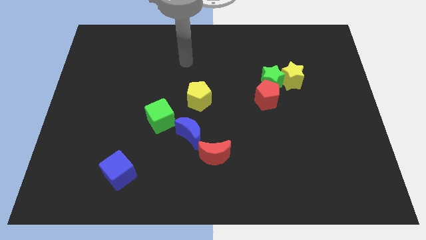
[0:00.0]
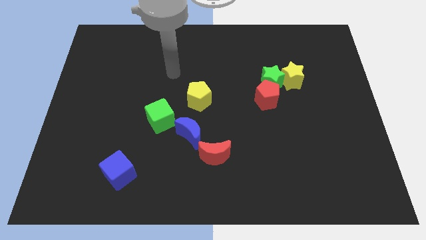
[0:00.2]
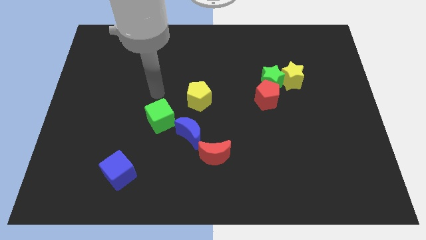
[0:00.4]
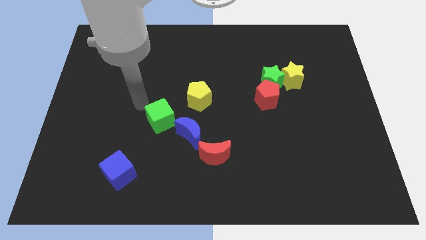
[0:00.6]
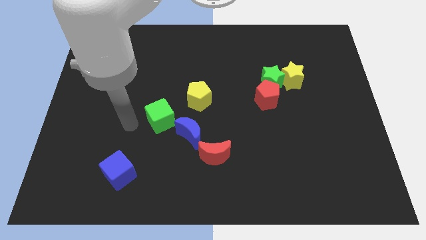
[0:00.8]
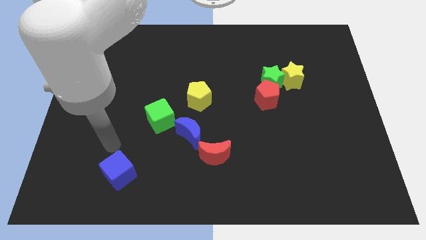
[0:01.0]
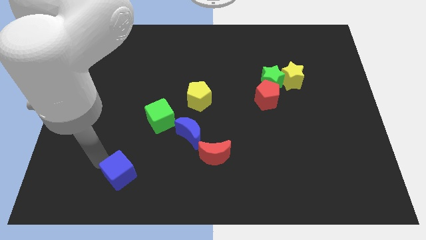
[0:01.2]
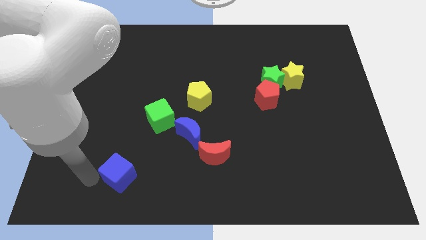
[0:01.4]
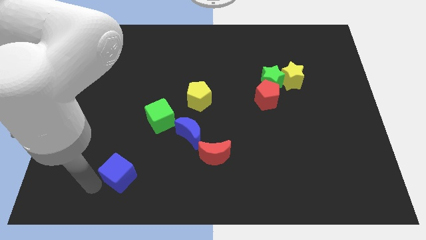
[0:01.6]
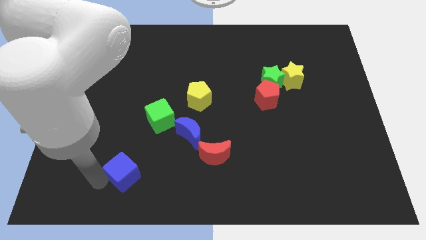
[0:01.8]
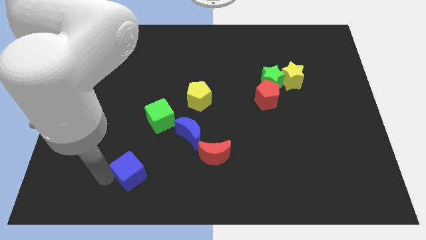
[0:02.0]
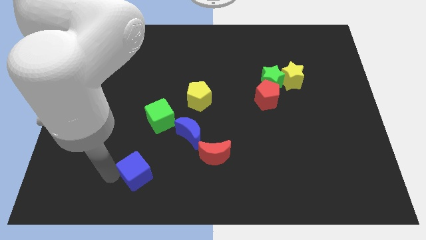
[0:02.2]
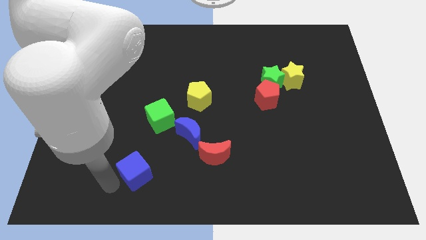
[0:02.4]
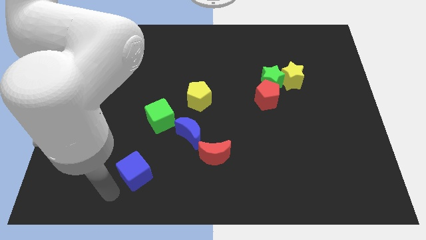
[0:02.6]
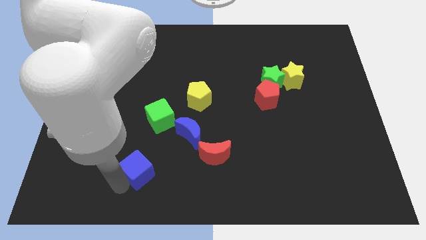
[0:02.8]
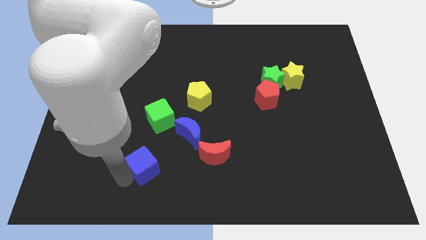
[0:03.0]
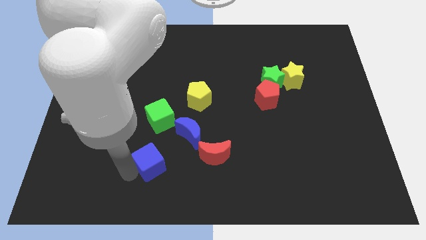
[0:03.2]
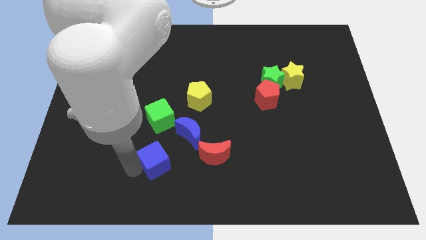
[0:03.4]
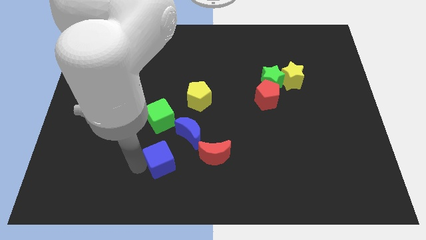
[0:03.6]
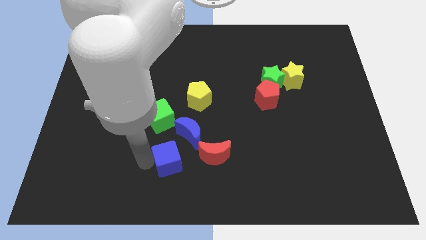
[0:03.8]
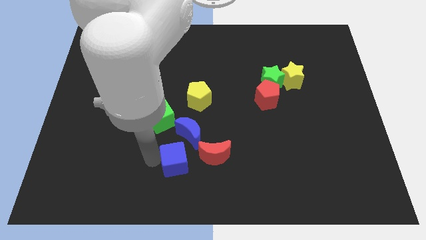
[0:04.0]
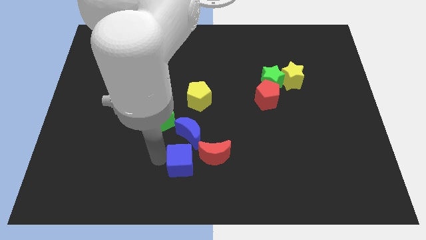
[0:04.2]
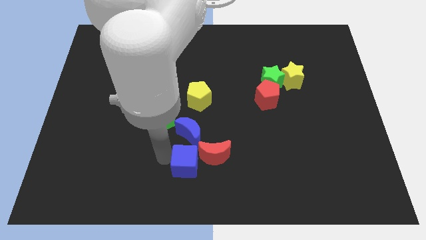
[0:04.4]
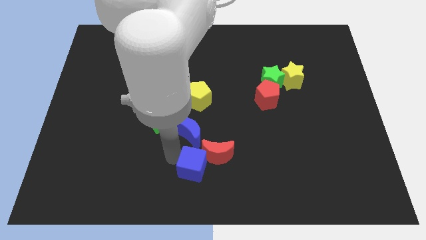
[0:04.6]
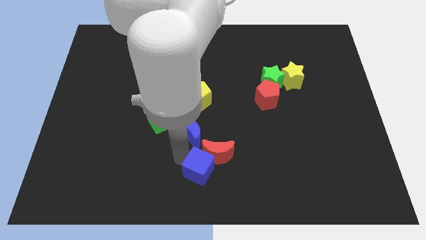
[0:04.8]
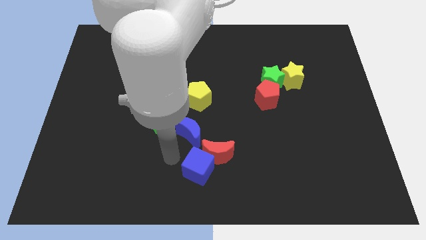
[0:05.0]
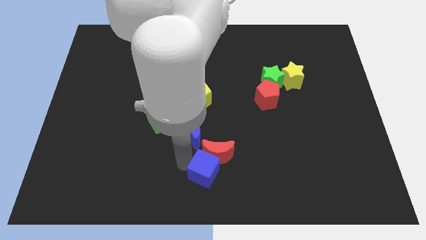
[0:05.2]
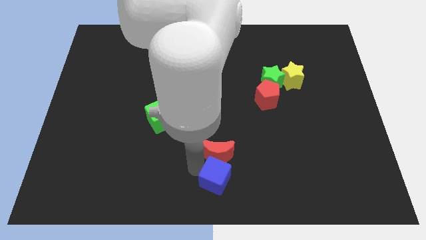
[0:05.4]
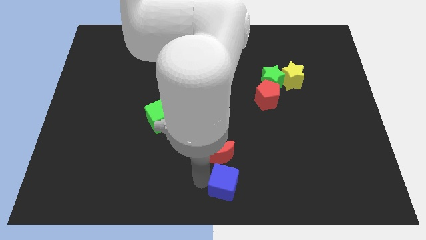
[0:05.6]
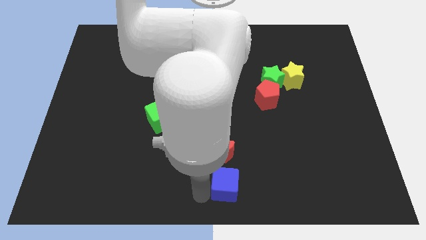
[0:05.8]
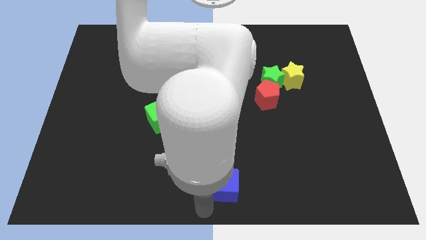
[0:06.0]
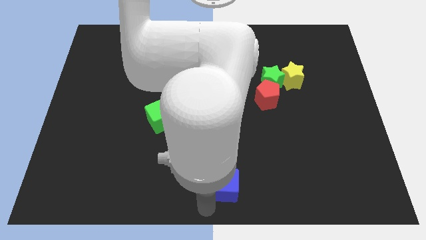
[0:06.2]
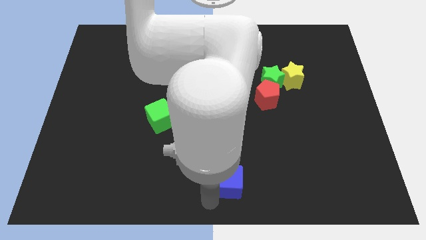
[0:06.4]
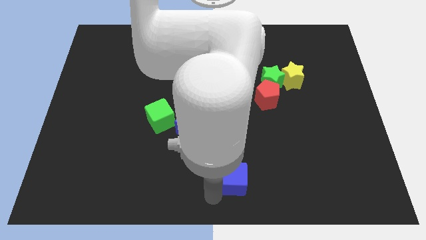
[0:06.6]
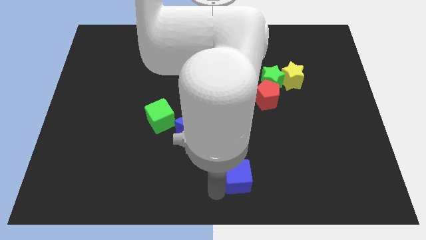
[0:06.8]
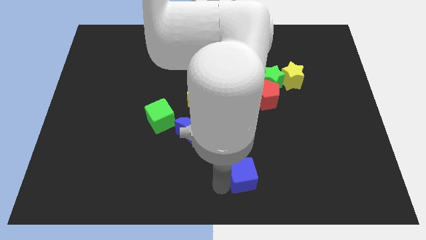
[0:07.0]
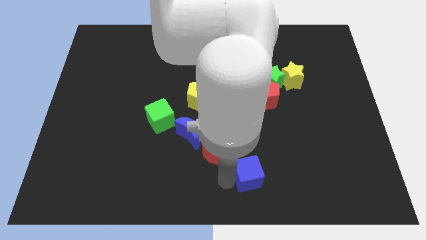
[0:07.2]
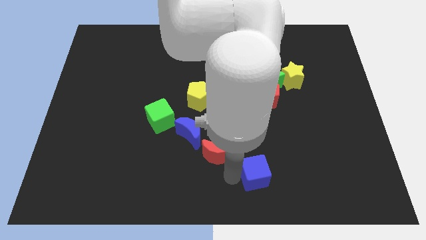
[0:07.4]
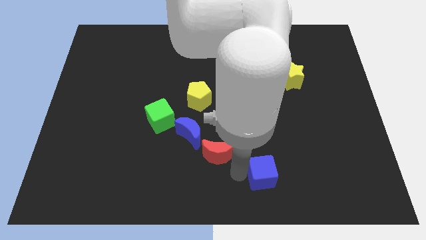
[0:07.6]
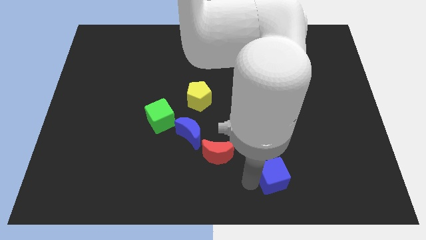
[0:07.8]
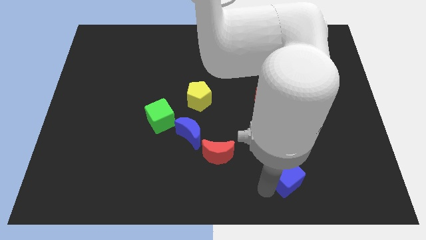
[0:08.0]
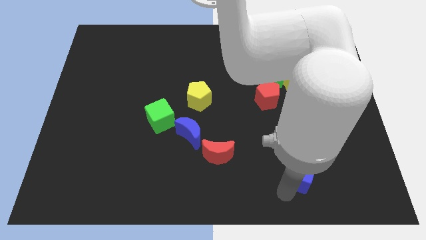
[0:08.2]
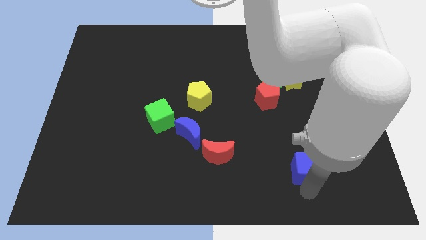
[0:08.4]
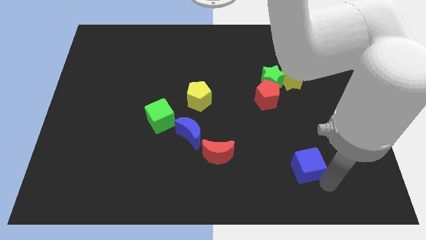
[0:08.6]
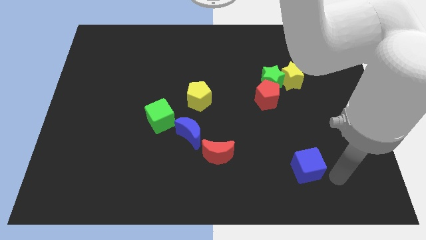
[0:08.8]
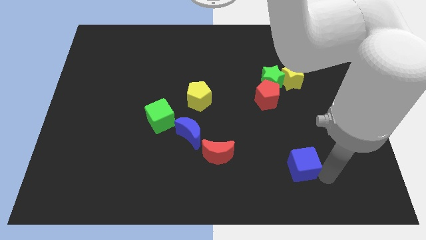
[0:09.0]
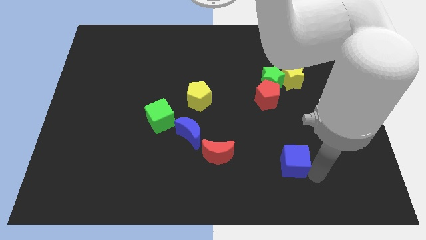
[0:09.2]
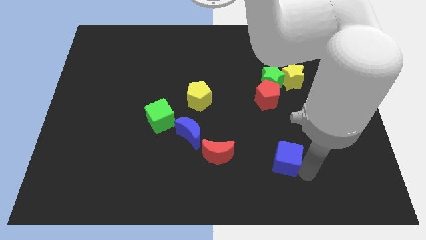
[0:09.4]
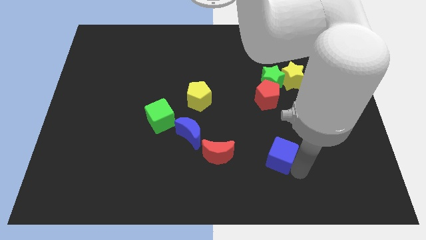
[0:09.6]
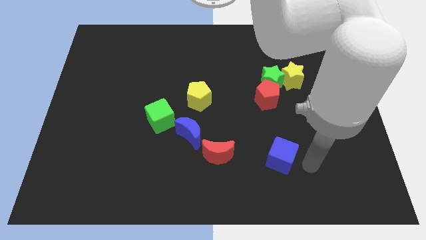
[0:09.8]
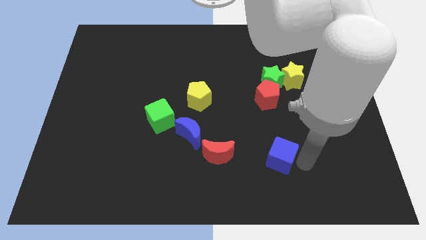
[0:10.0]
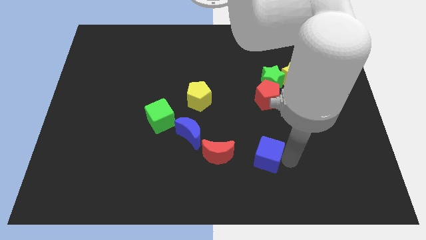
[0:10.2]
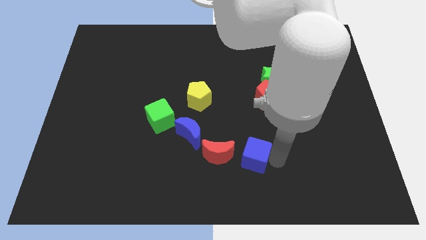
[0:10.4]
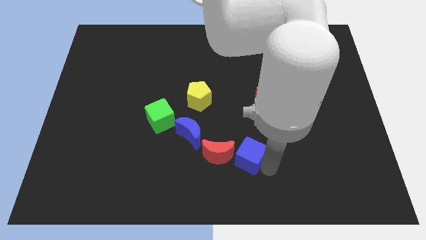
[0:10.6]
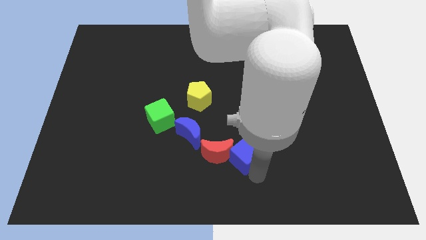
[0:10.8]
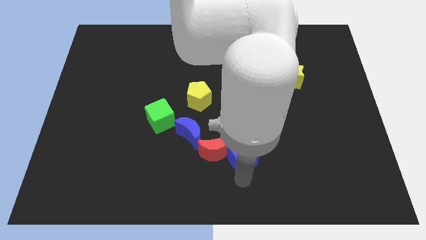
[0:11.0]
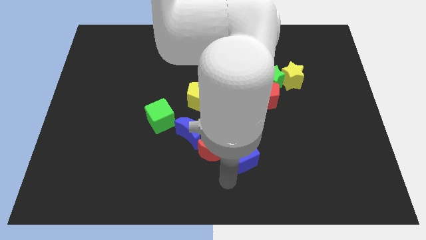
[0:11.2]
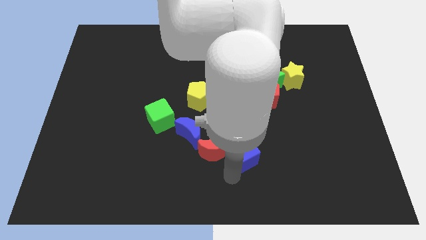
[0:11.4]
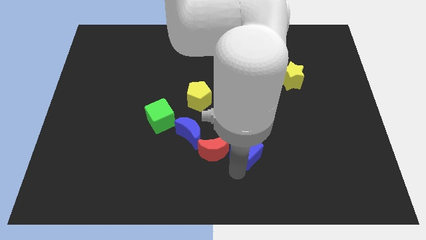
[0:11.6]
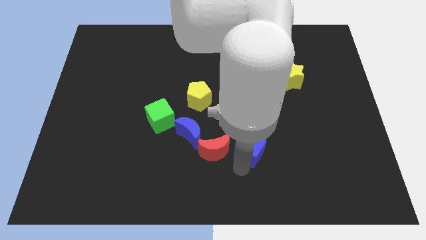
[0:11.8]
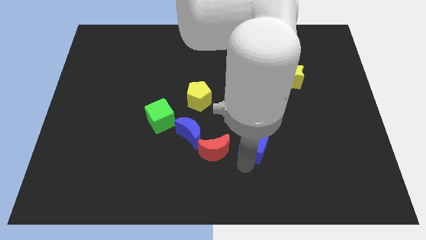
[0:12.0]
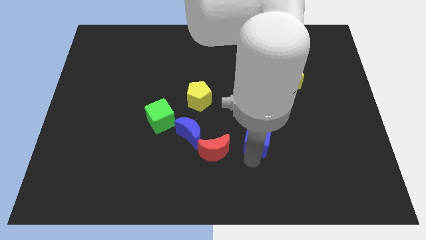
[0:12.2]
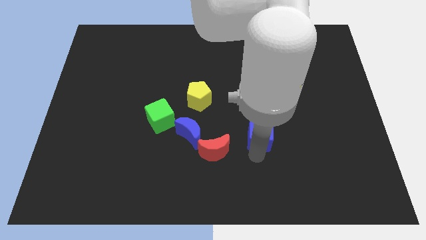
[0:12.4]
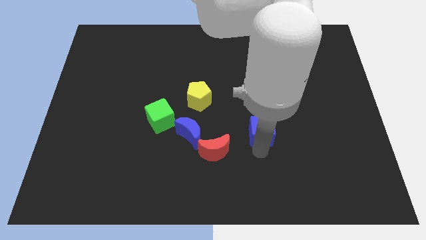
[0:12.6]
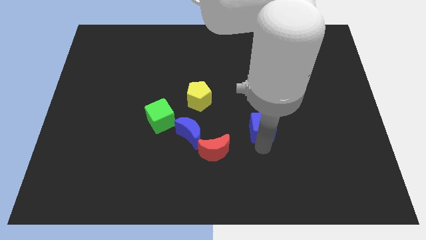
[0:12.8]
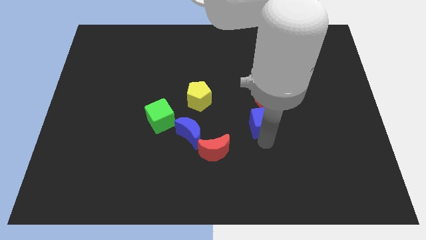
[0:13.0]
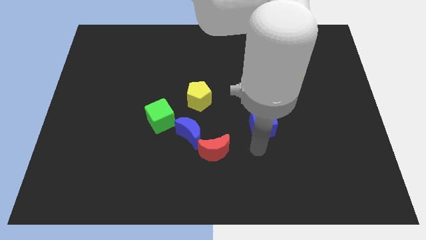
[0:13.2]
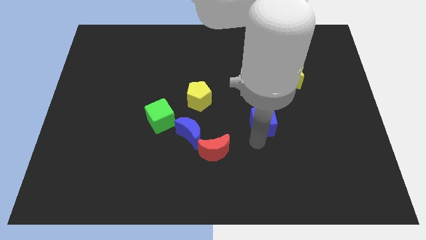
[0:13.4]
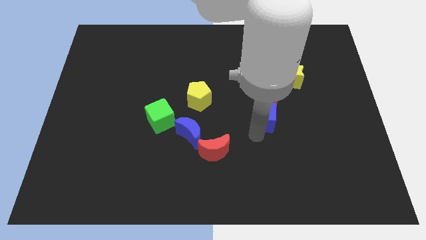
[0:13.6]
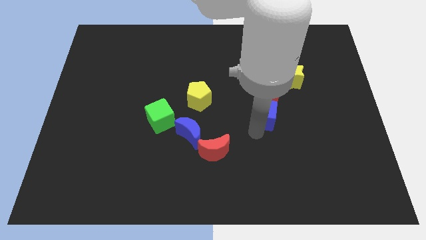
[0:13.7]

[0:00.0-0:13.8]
move the blue cube next to the red pentagon

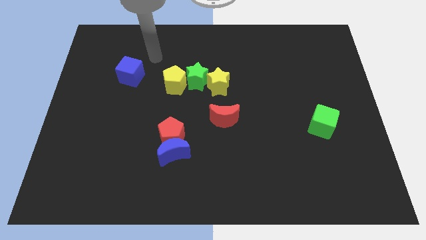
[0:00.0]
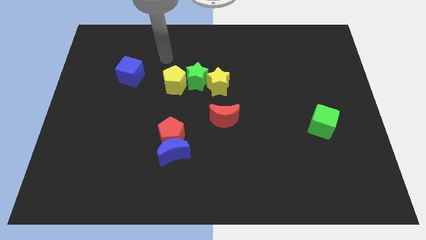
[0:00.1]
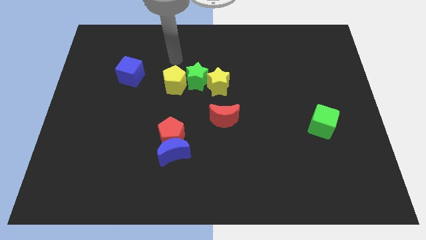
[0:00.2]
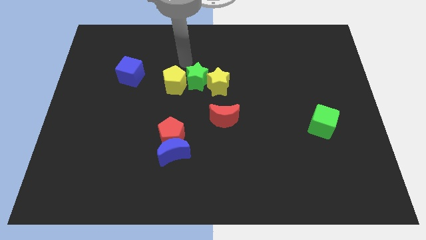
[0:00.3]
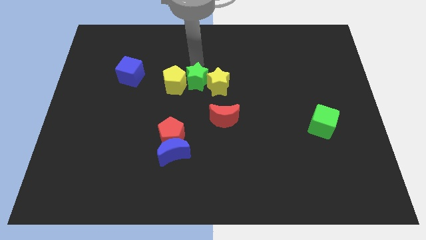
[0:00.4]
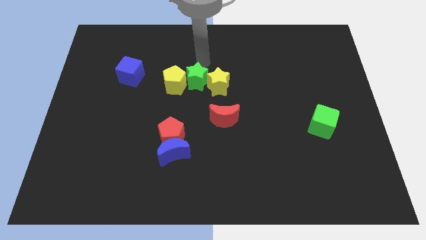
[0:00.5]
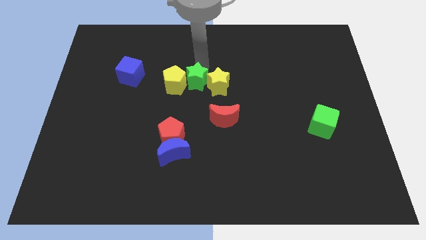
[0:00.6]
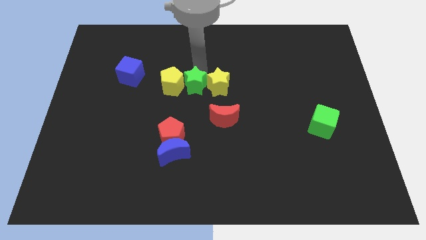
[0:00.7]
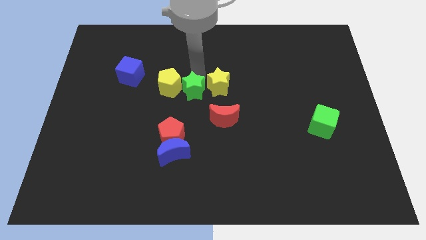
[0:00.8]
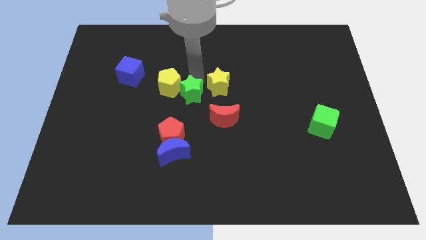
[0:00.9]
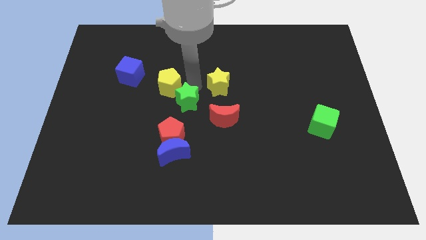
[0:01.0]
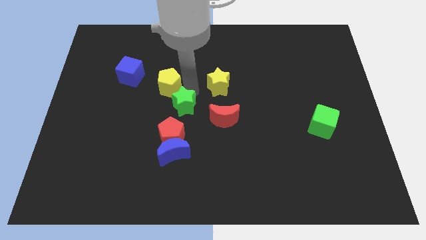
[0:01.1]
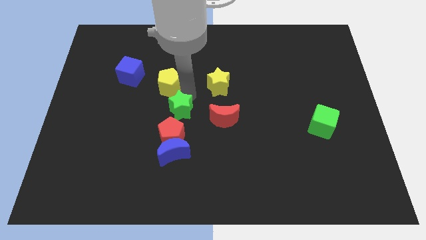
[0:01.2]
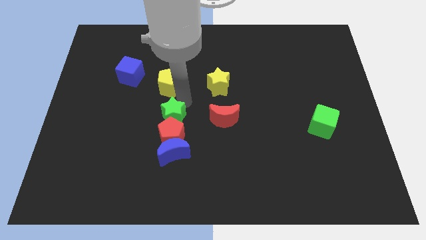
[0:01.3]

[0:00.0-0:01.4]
push the green star to the red pentagon

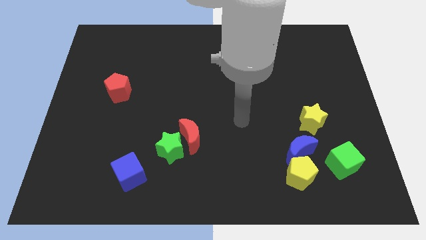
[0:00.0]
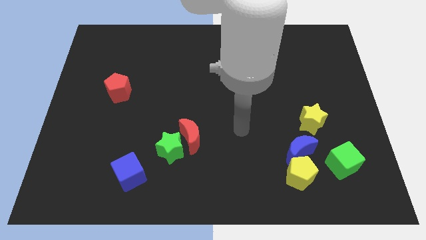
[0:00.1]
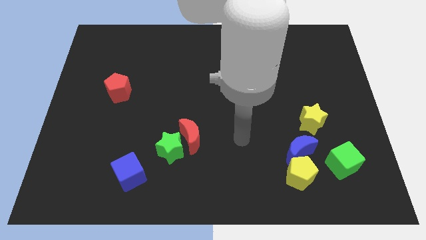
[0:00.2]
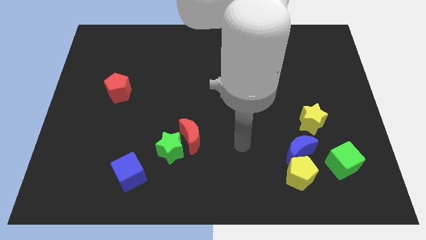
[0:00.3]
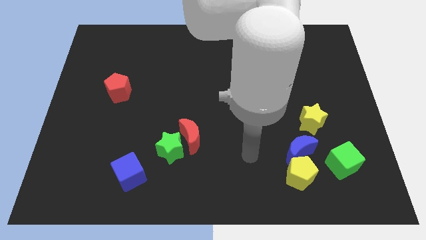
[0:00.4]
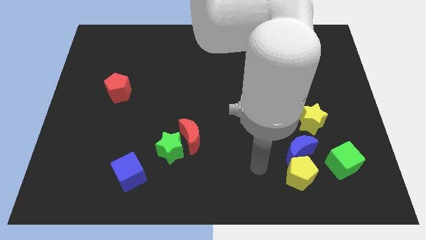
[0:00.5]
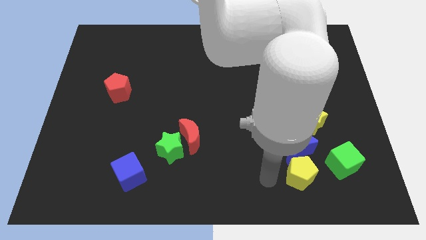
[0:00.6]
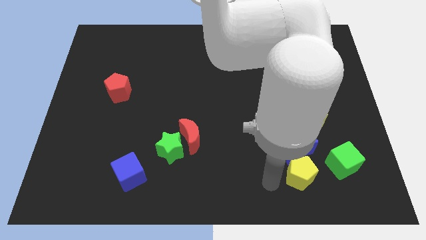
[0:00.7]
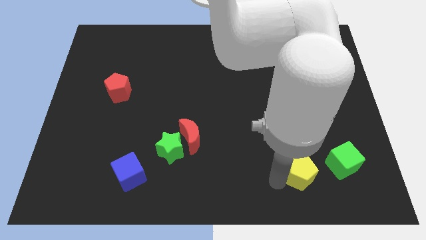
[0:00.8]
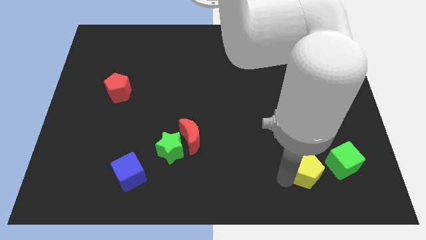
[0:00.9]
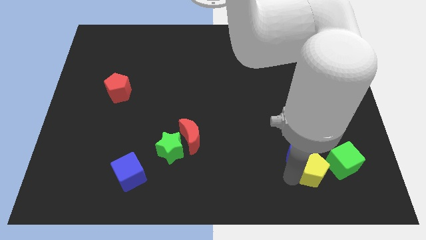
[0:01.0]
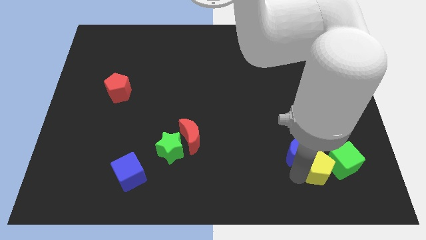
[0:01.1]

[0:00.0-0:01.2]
move the yellow pentagon towards the green cube
